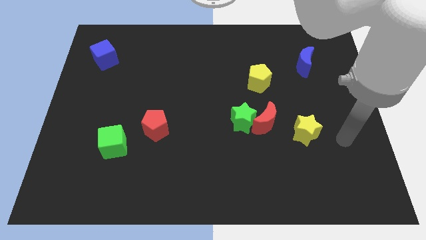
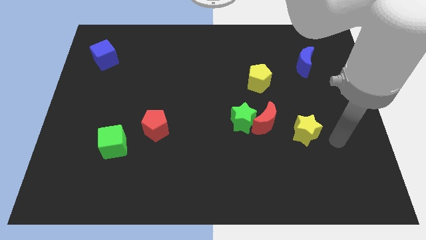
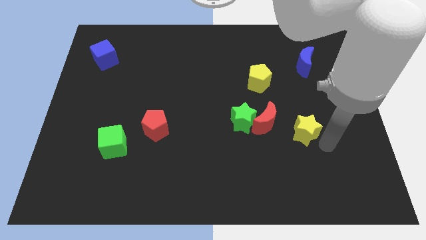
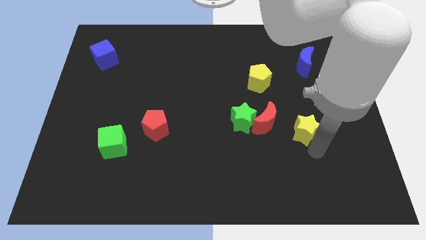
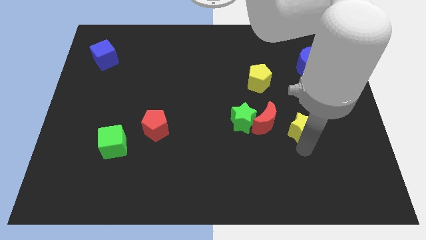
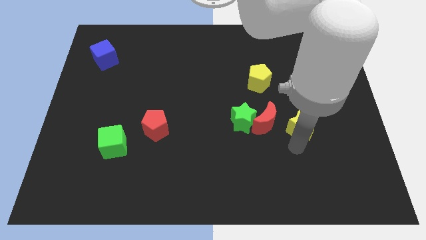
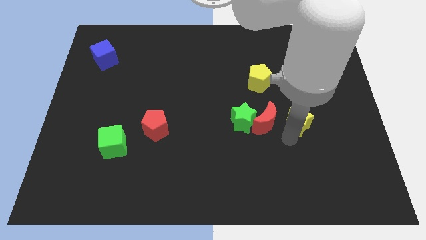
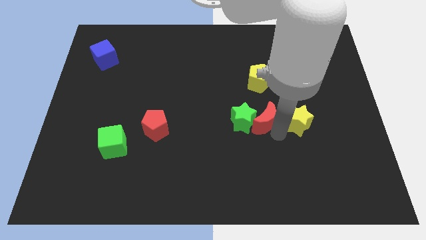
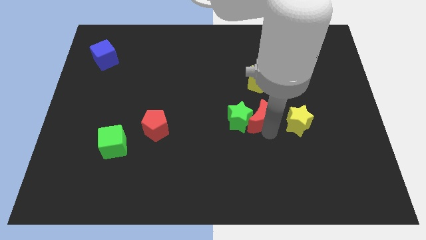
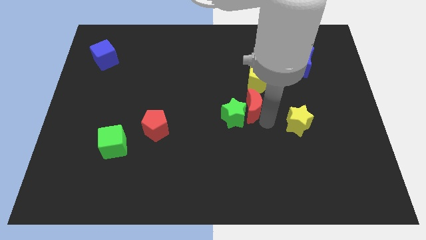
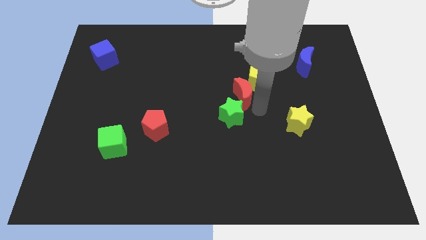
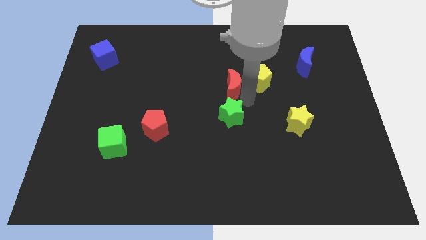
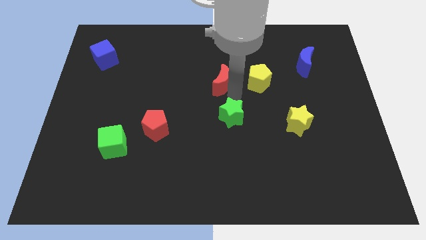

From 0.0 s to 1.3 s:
pull the green star apart from the red moon

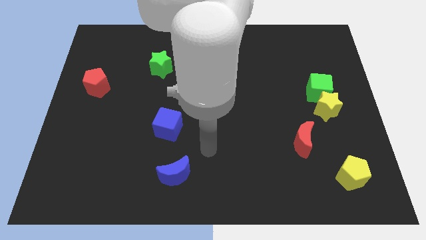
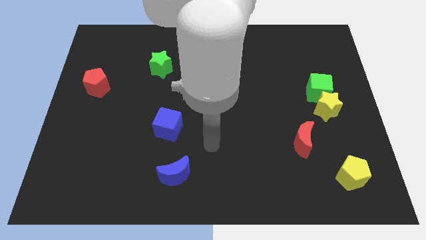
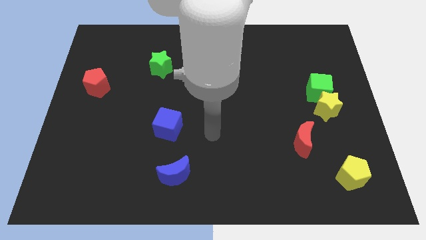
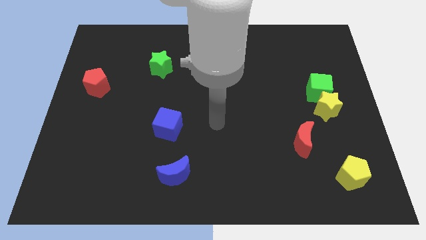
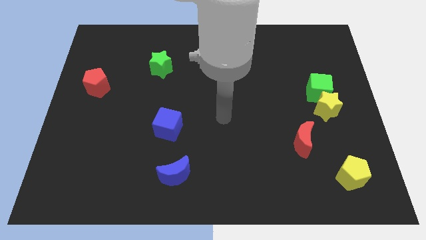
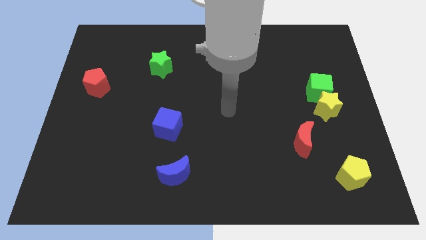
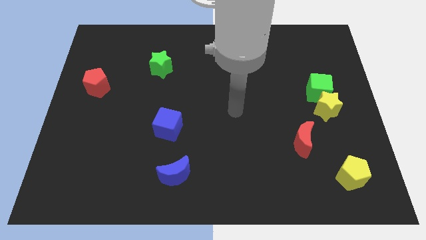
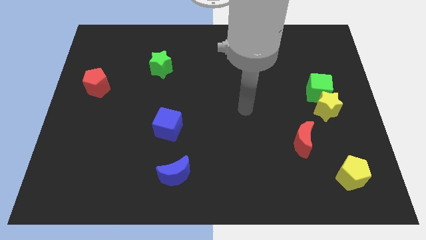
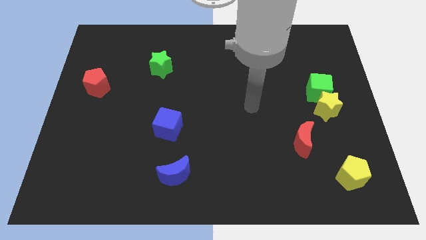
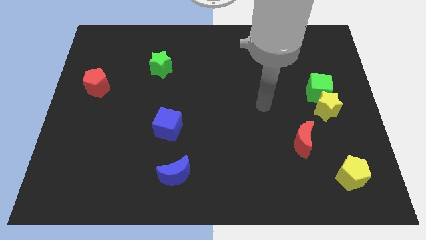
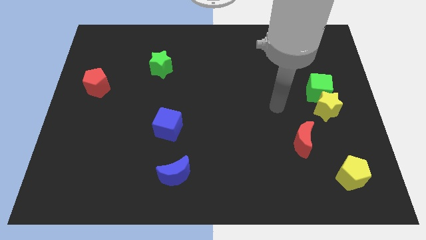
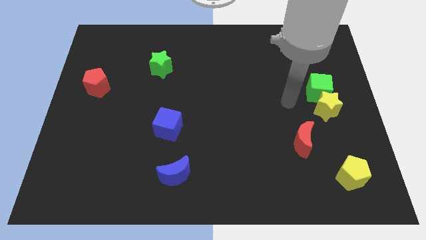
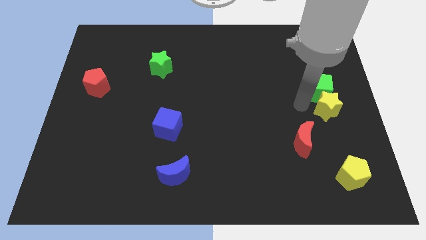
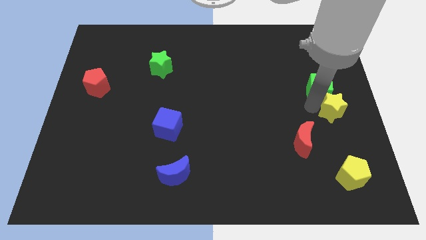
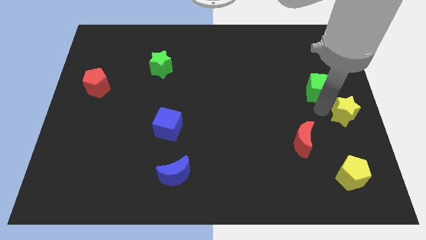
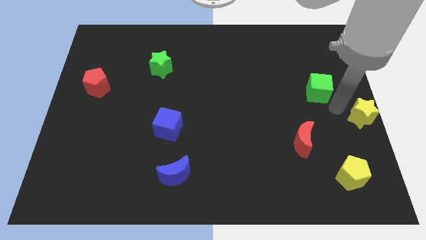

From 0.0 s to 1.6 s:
separate the green cube from the yellow star

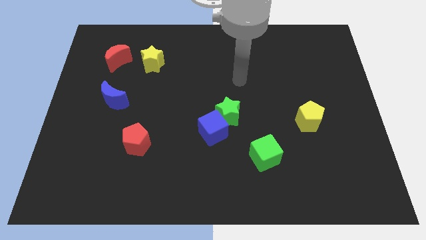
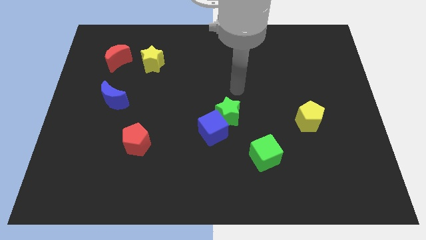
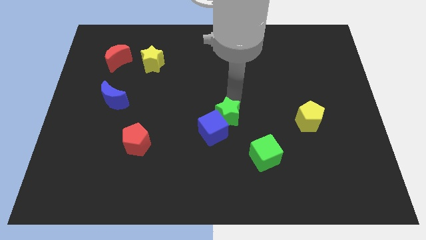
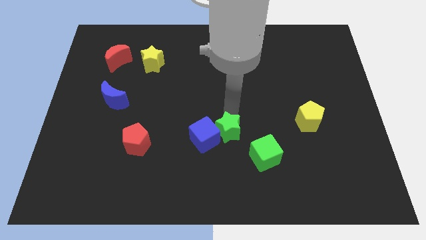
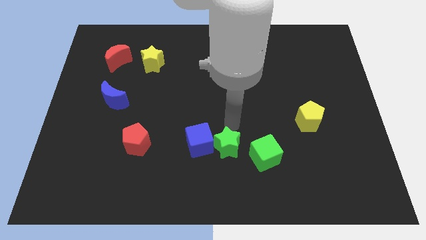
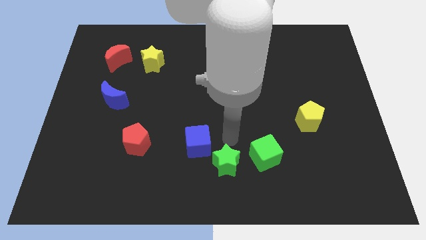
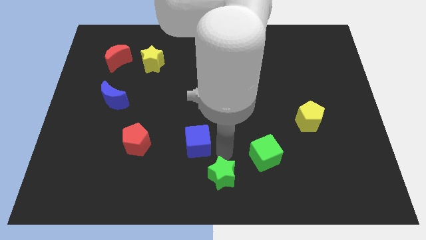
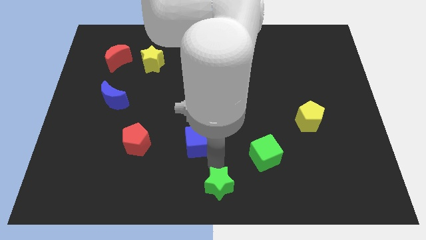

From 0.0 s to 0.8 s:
pull the blue cube apart from the green star

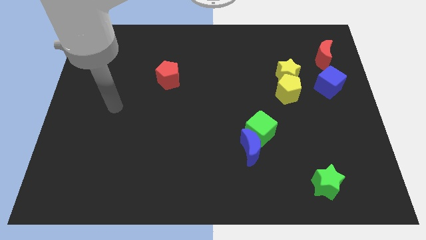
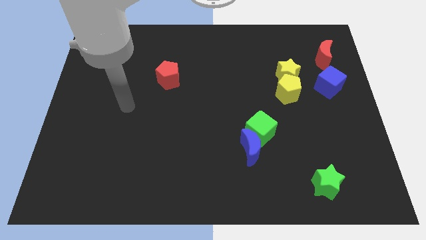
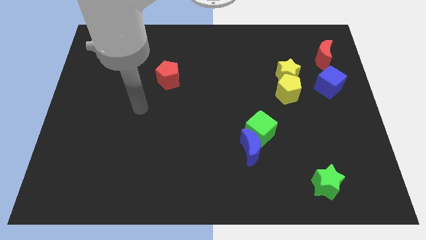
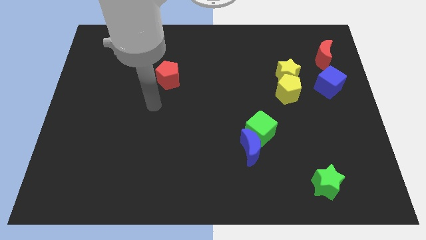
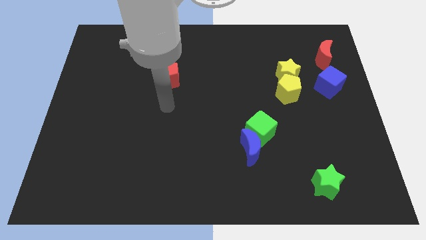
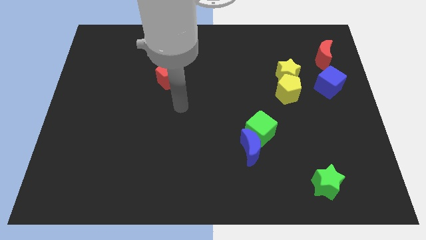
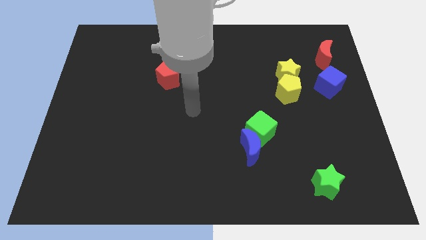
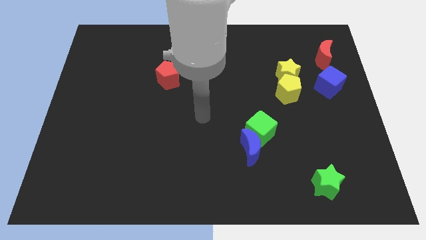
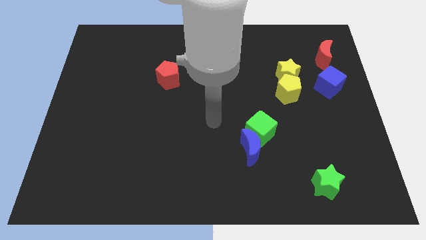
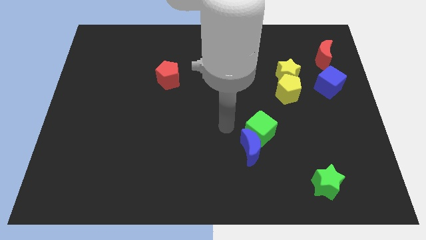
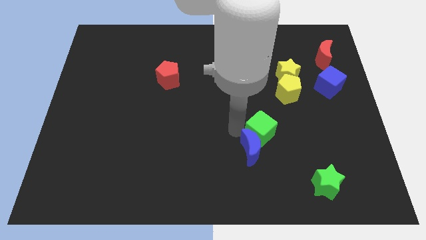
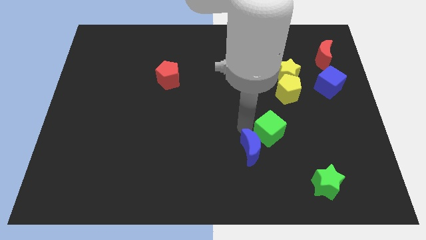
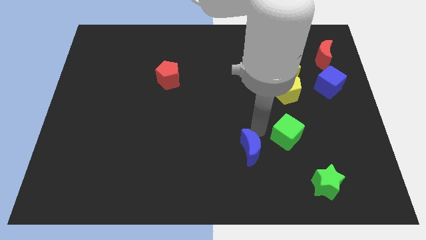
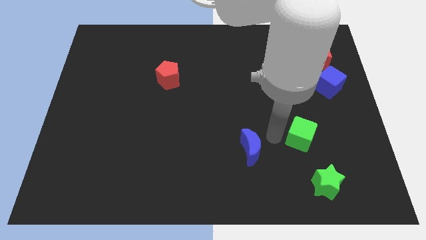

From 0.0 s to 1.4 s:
separate the blue moon from the green cube

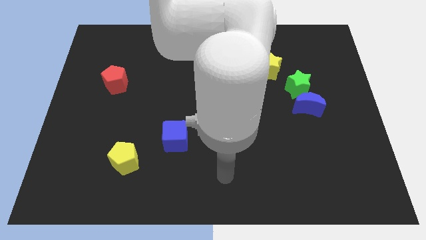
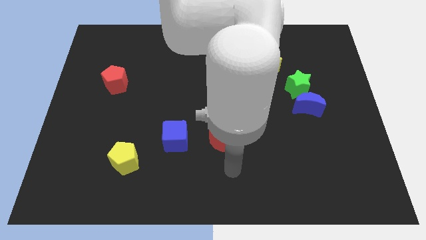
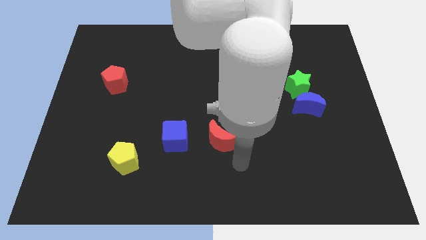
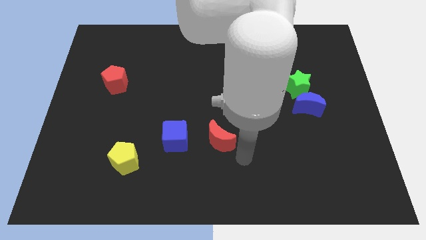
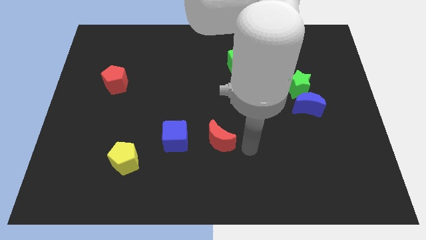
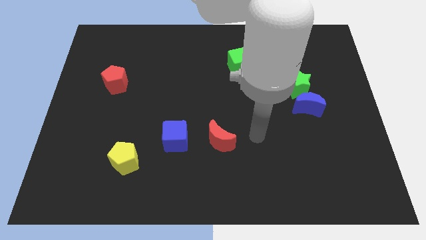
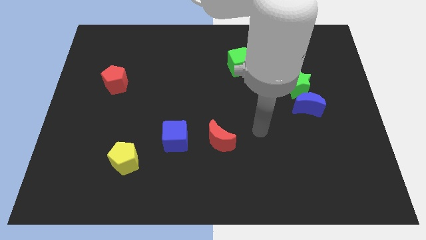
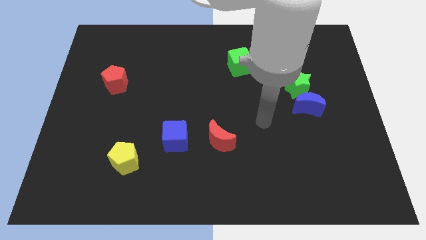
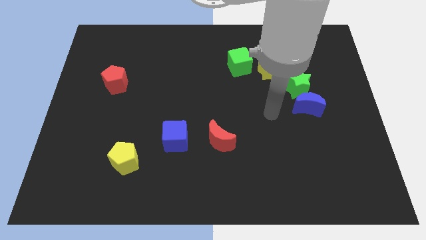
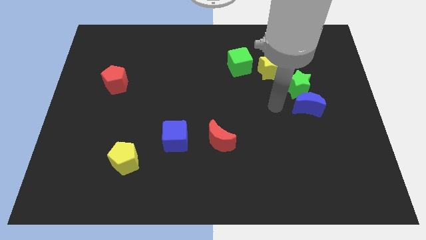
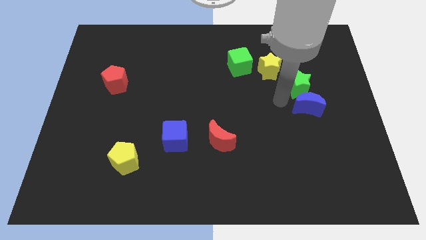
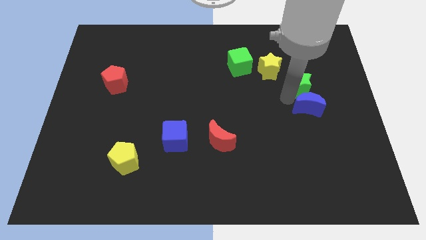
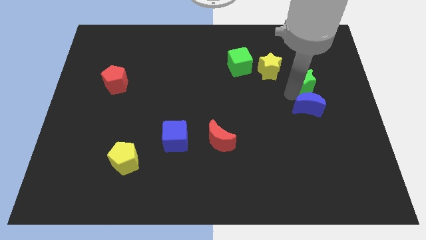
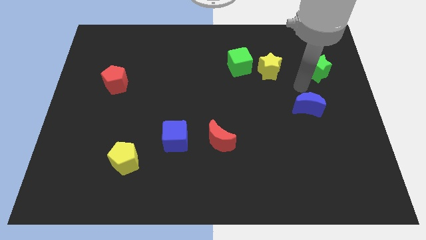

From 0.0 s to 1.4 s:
separate the blue moon from the green star

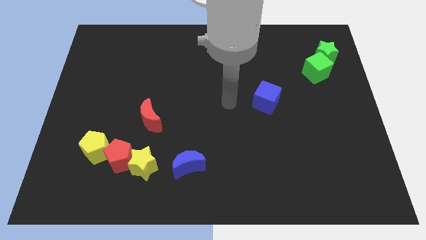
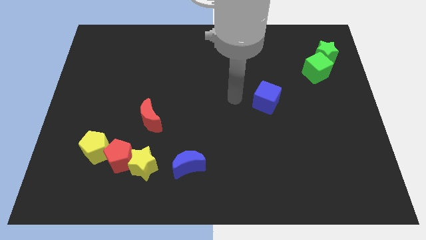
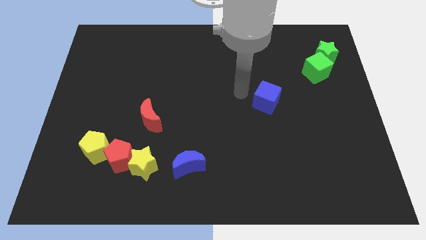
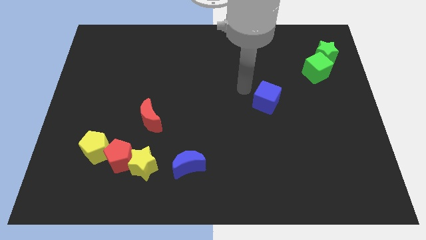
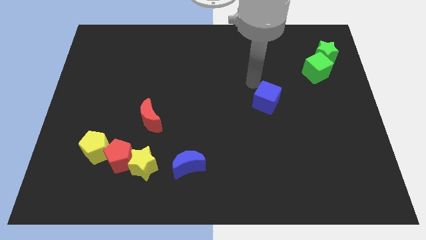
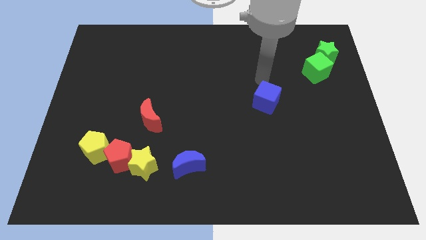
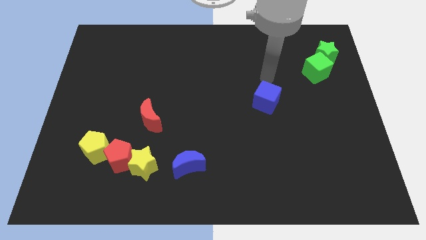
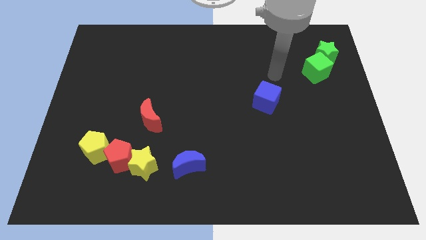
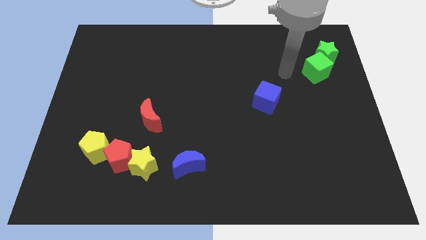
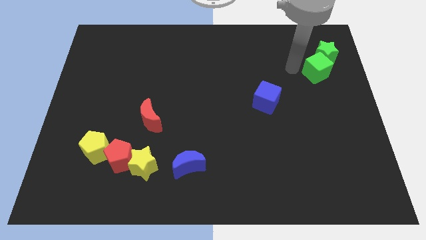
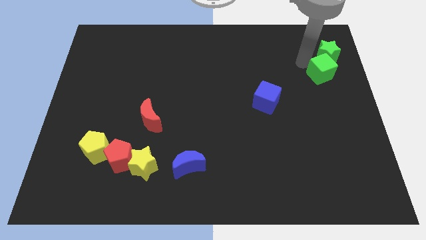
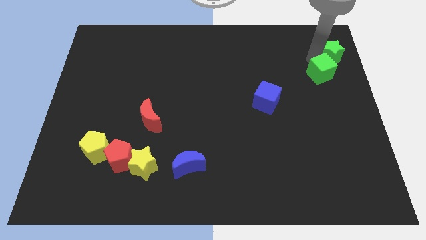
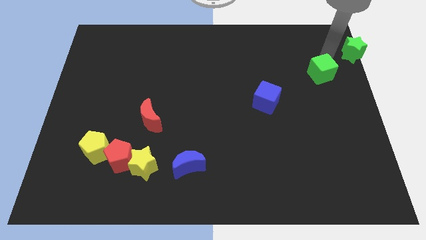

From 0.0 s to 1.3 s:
move the green cube away from the green star

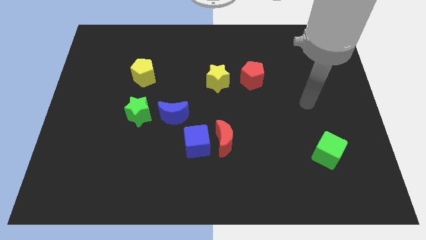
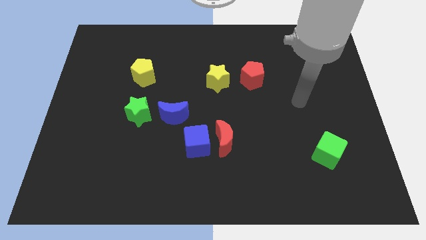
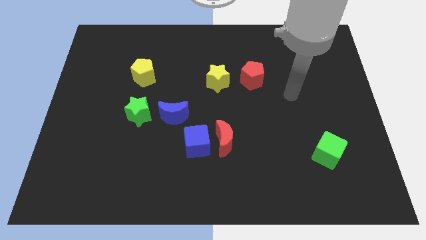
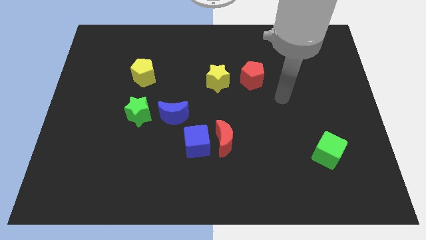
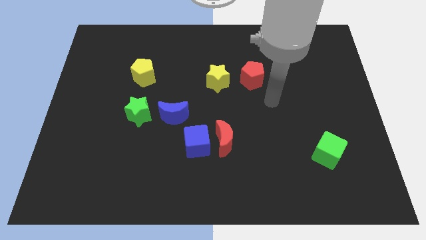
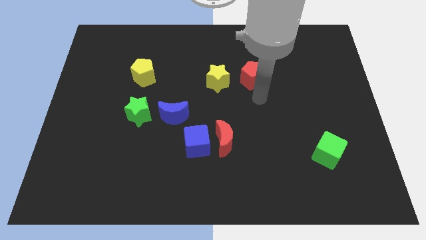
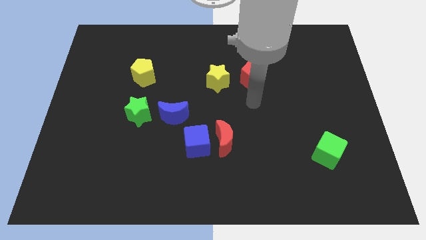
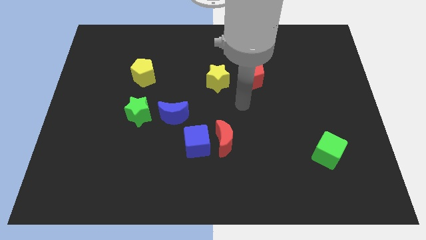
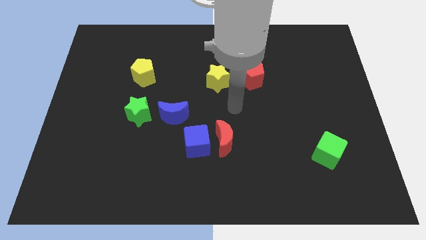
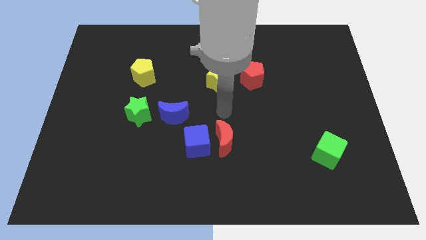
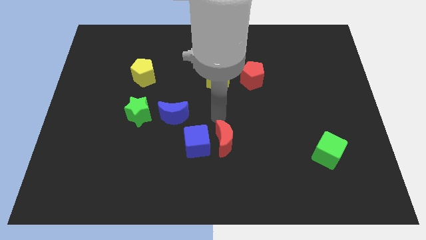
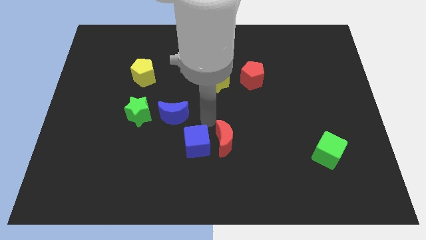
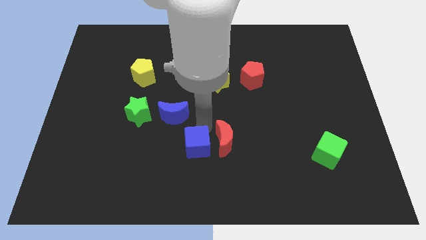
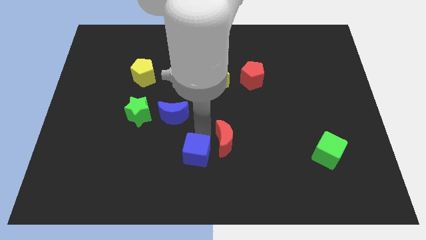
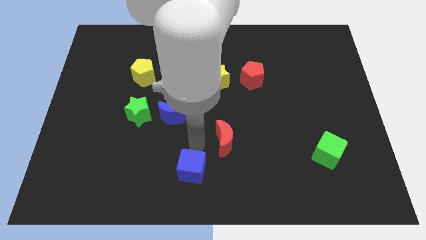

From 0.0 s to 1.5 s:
pull the red moon apart from the blue cube
